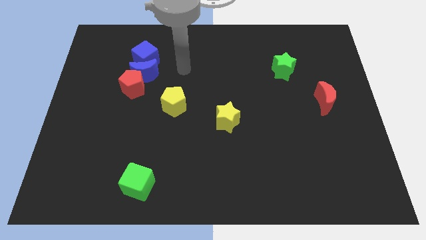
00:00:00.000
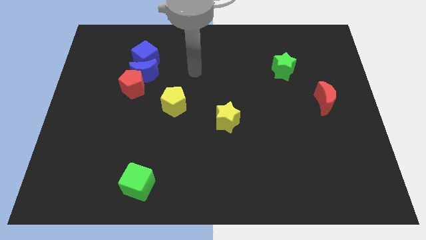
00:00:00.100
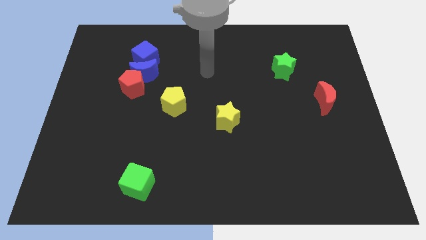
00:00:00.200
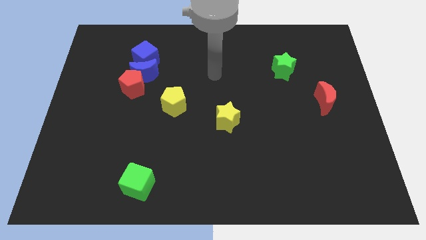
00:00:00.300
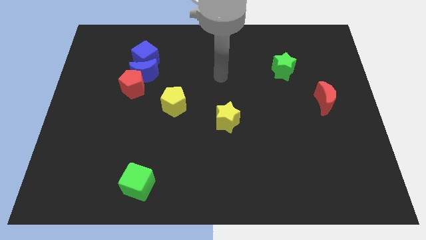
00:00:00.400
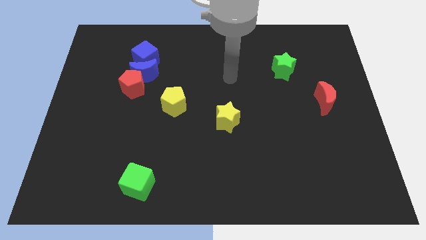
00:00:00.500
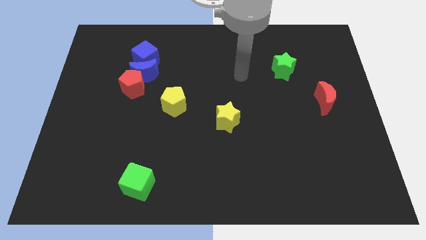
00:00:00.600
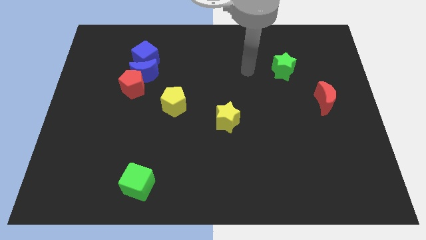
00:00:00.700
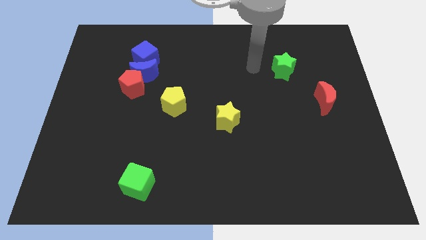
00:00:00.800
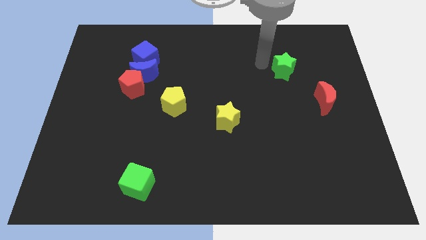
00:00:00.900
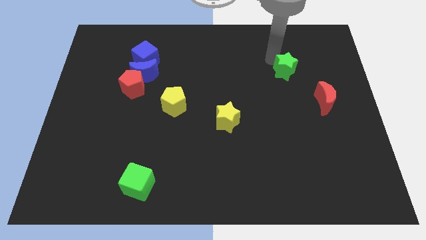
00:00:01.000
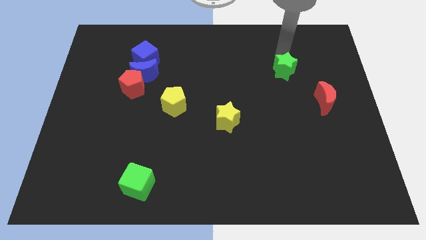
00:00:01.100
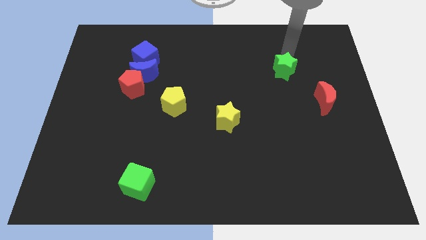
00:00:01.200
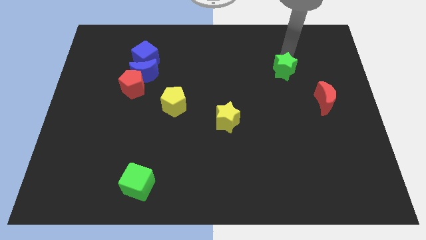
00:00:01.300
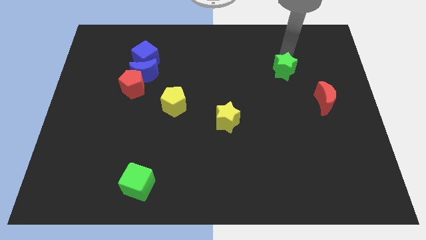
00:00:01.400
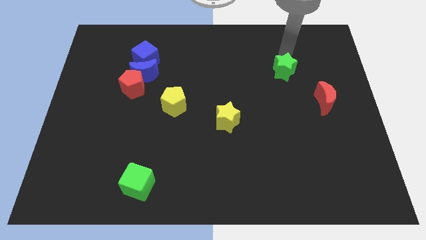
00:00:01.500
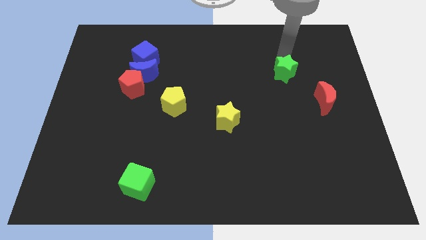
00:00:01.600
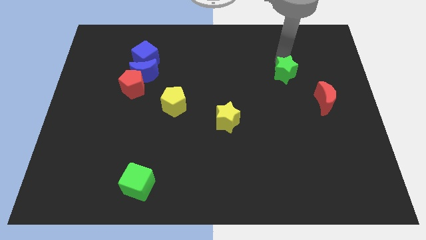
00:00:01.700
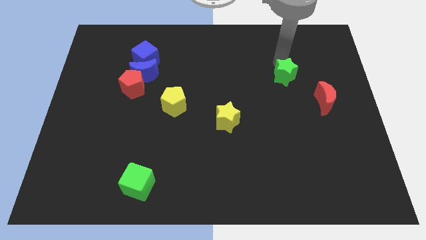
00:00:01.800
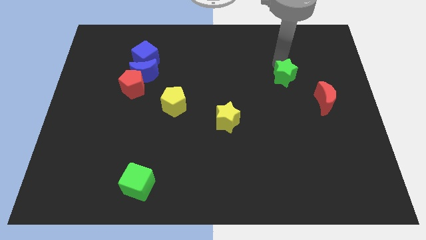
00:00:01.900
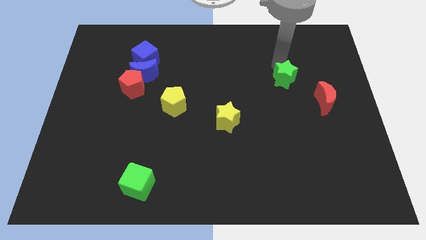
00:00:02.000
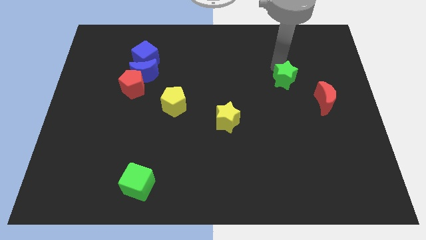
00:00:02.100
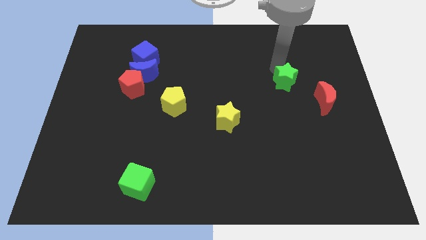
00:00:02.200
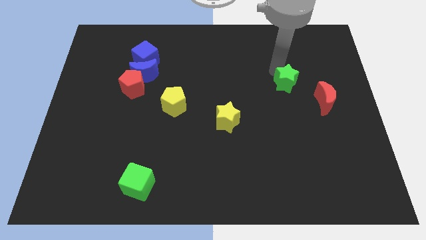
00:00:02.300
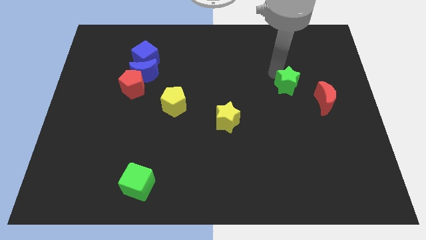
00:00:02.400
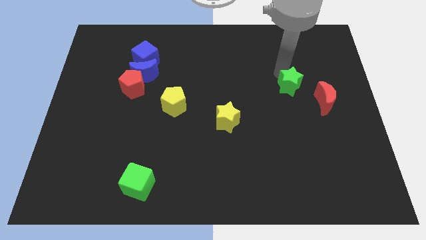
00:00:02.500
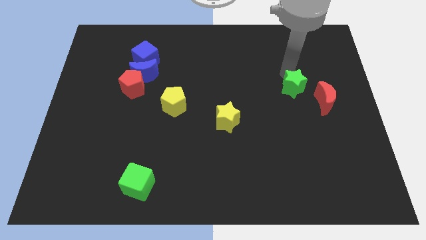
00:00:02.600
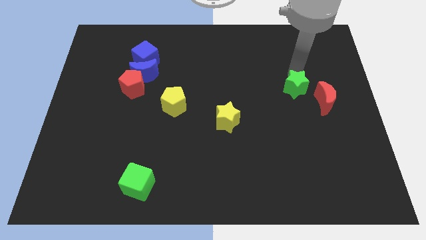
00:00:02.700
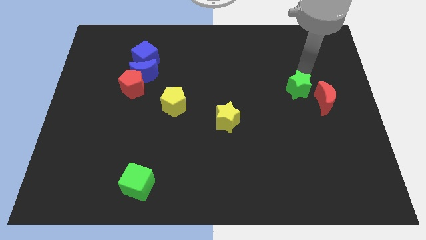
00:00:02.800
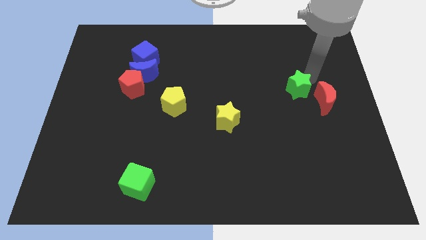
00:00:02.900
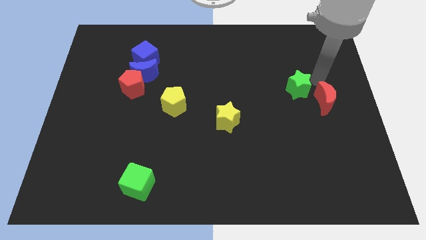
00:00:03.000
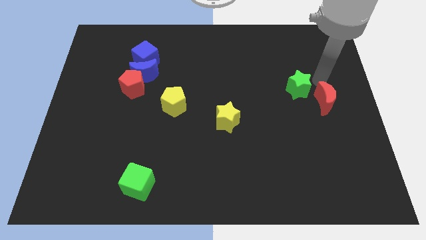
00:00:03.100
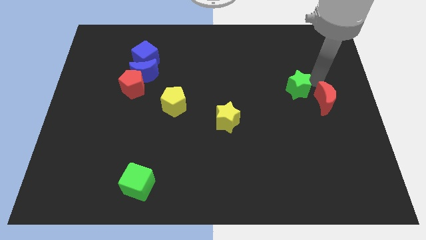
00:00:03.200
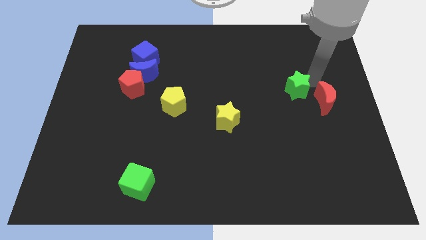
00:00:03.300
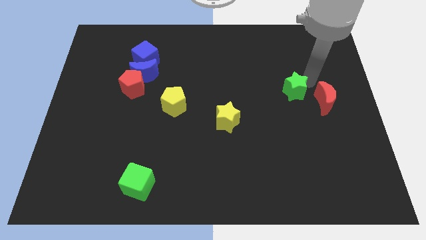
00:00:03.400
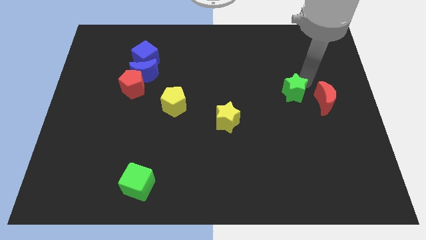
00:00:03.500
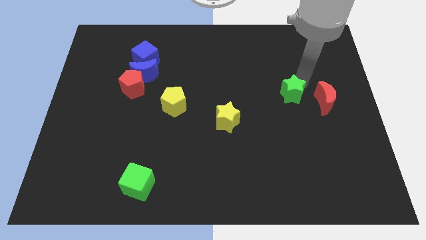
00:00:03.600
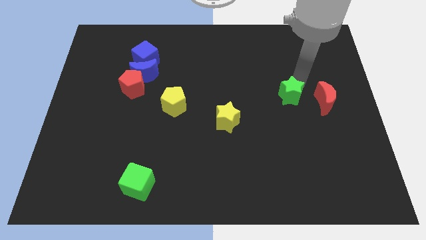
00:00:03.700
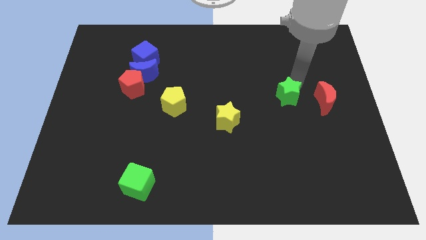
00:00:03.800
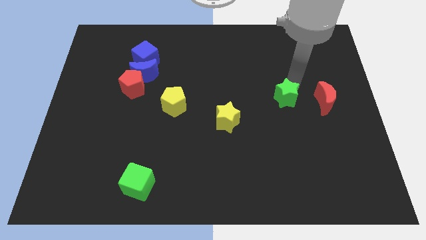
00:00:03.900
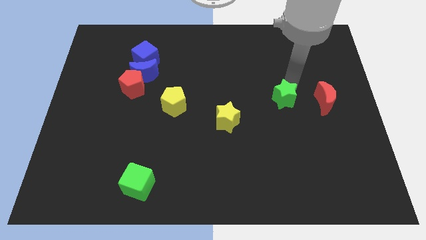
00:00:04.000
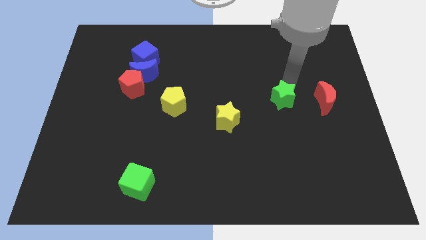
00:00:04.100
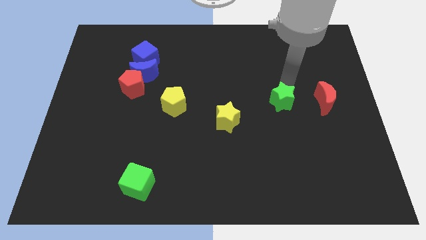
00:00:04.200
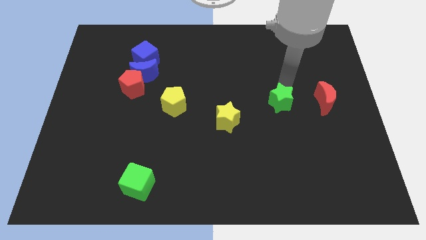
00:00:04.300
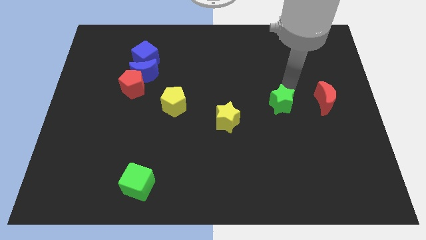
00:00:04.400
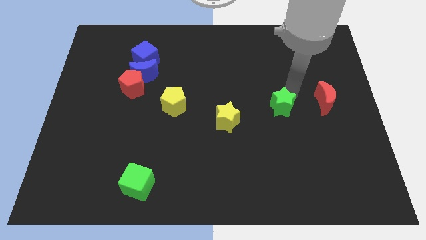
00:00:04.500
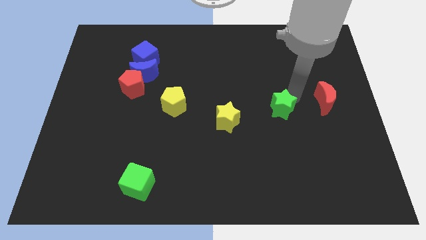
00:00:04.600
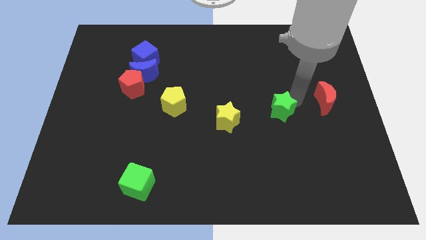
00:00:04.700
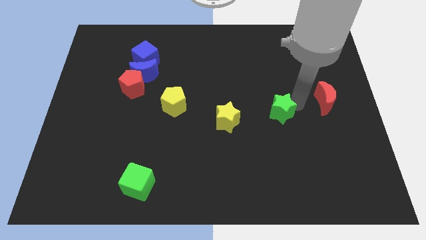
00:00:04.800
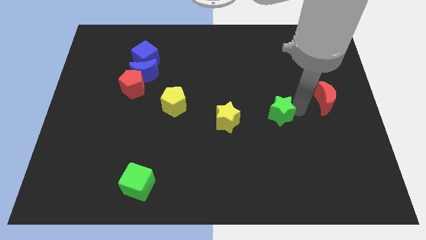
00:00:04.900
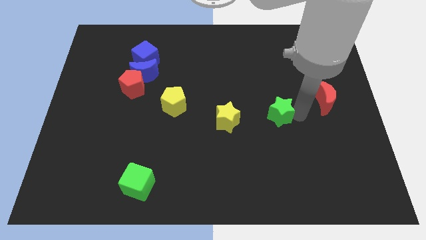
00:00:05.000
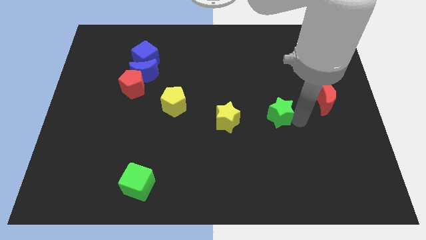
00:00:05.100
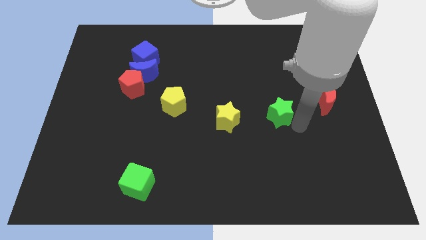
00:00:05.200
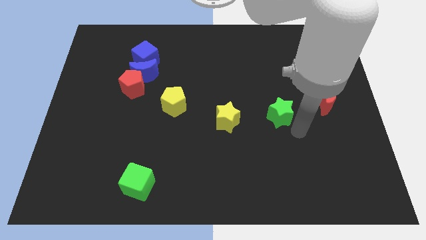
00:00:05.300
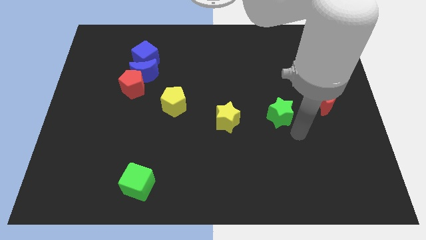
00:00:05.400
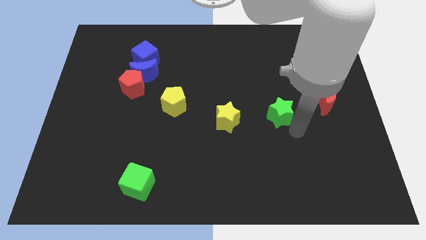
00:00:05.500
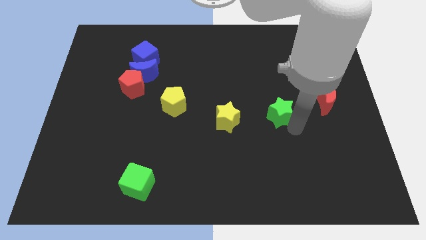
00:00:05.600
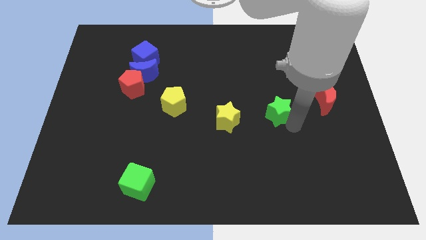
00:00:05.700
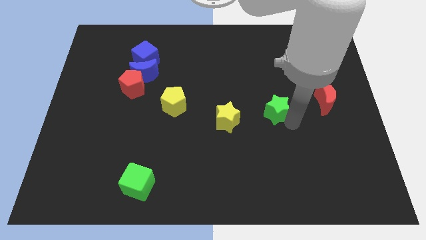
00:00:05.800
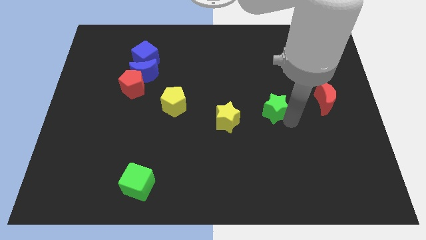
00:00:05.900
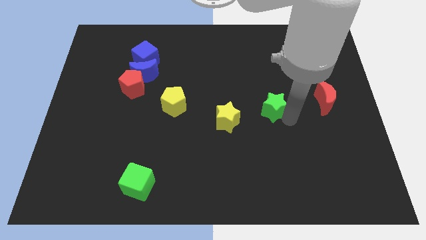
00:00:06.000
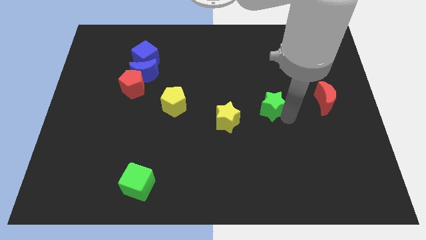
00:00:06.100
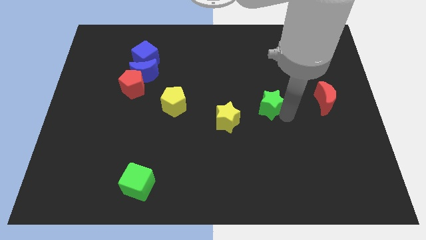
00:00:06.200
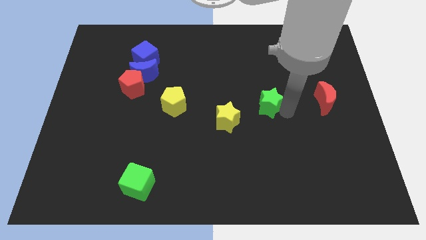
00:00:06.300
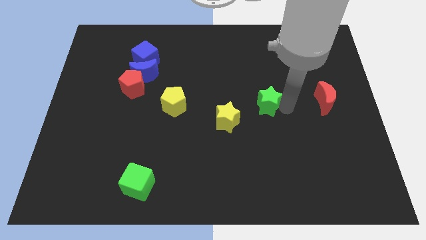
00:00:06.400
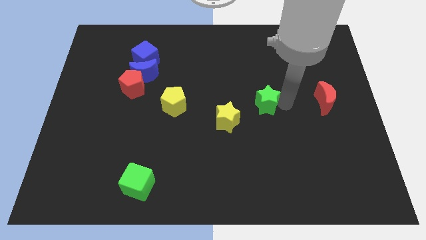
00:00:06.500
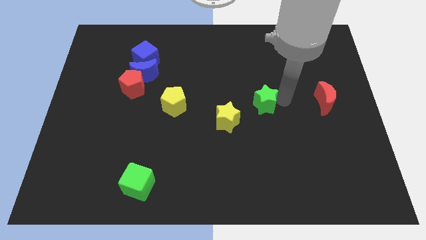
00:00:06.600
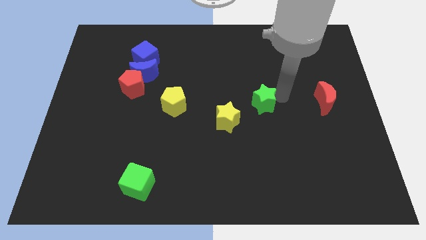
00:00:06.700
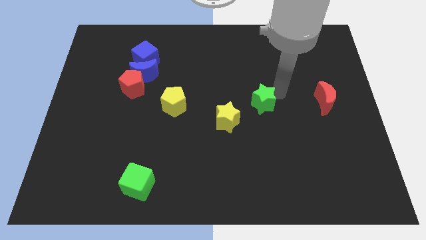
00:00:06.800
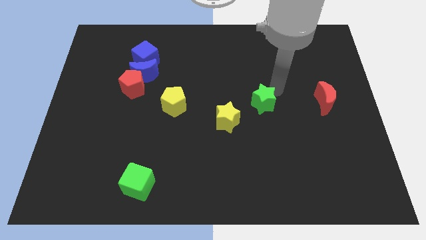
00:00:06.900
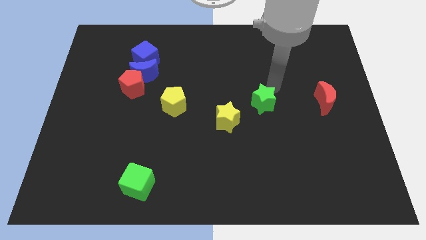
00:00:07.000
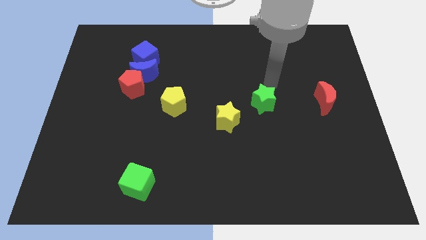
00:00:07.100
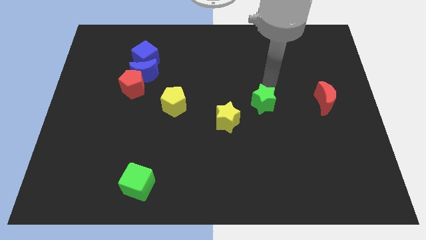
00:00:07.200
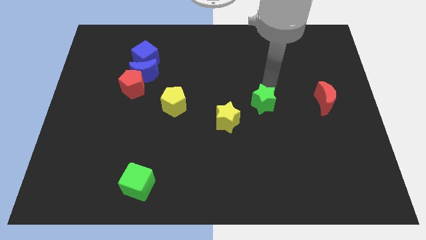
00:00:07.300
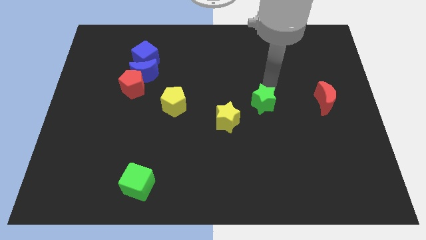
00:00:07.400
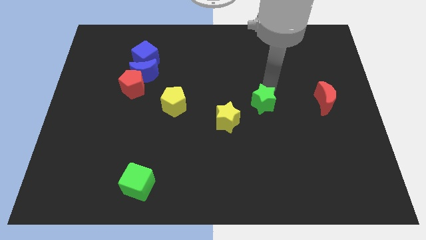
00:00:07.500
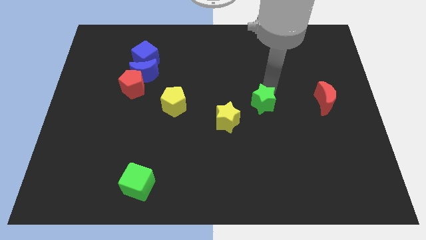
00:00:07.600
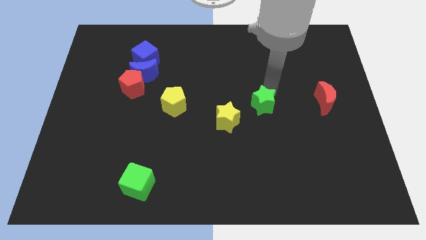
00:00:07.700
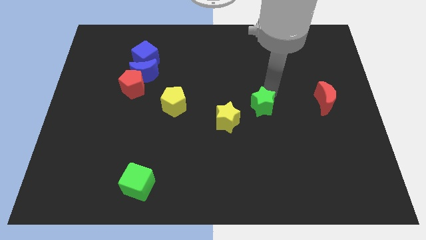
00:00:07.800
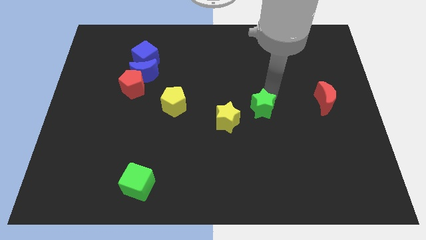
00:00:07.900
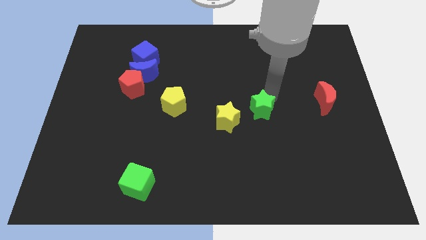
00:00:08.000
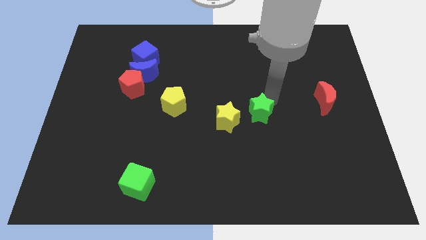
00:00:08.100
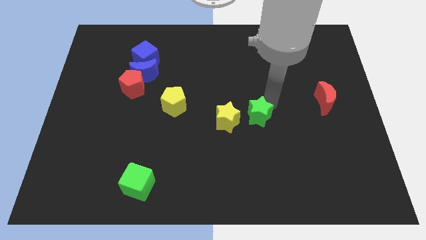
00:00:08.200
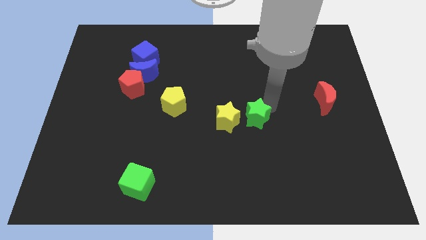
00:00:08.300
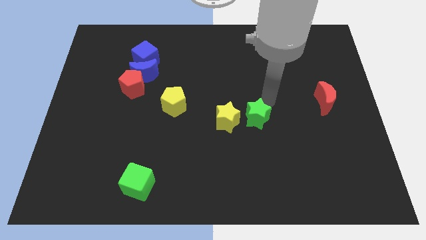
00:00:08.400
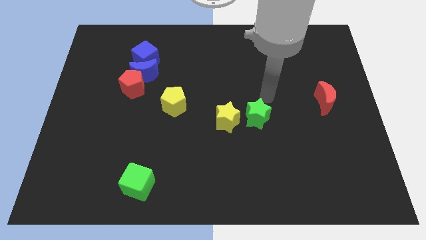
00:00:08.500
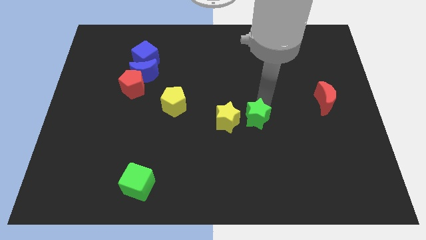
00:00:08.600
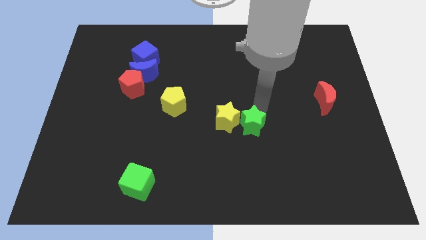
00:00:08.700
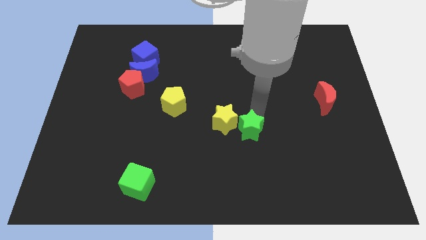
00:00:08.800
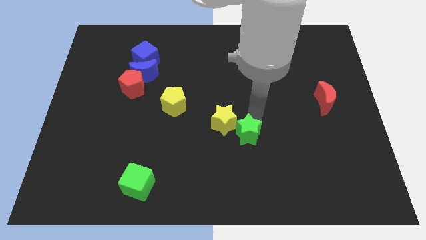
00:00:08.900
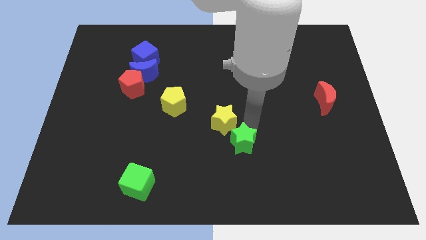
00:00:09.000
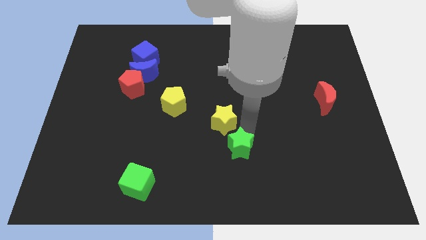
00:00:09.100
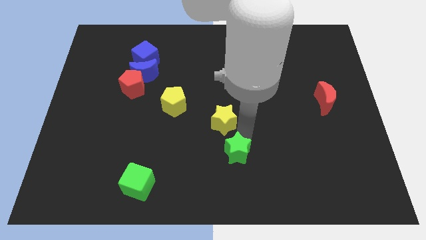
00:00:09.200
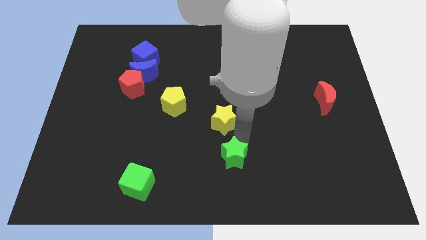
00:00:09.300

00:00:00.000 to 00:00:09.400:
move the green star to the bottom side
